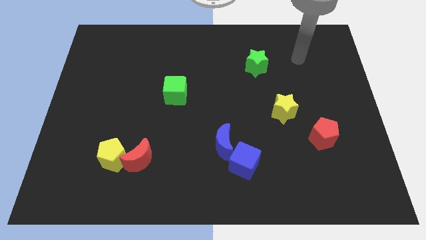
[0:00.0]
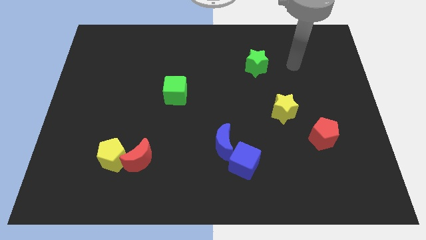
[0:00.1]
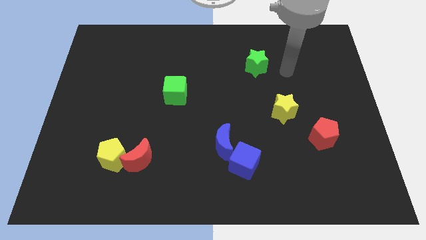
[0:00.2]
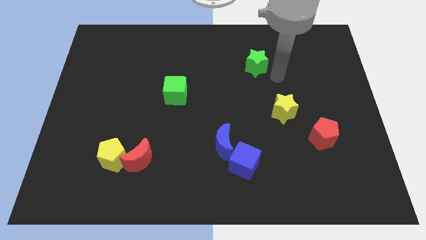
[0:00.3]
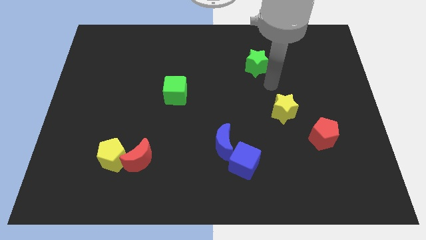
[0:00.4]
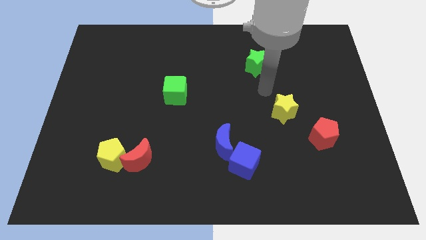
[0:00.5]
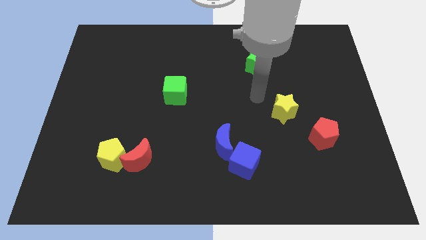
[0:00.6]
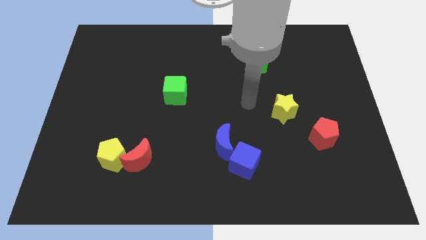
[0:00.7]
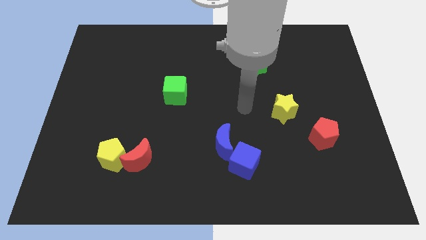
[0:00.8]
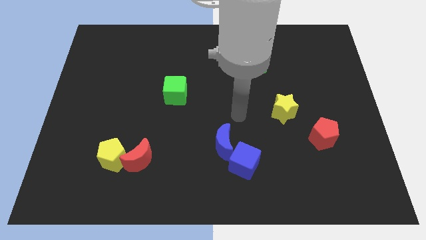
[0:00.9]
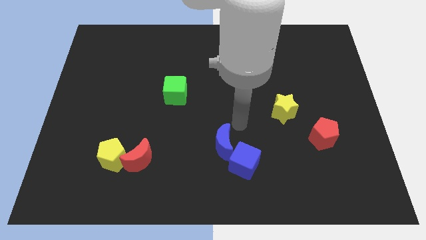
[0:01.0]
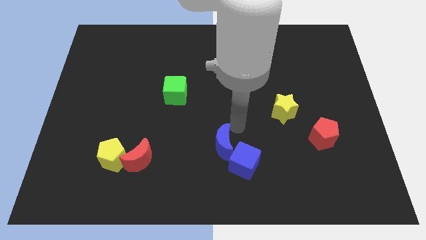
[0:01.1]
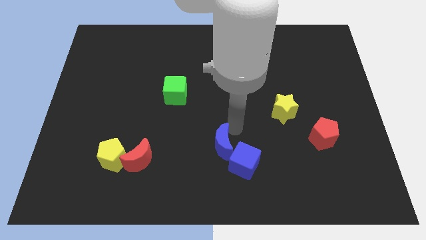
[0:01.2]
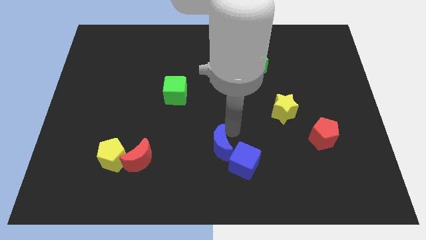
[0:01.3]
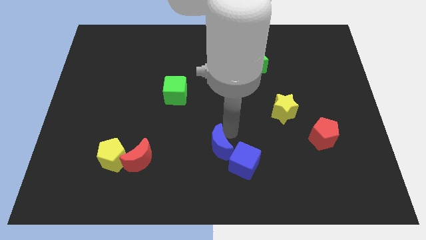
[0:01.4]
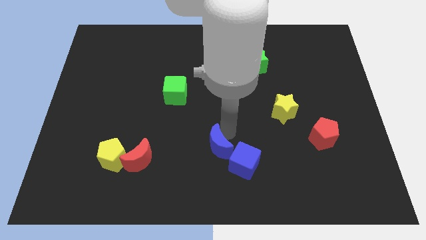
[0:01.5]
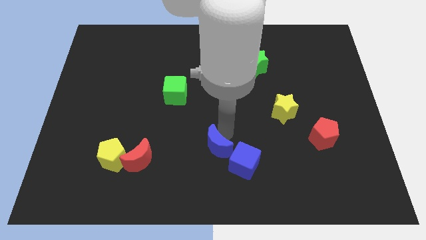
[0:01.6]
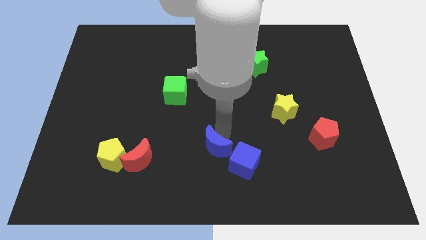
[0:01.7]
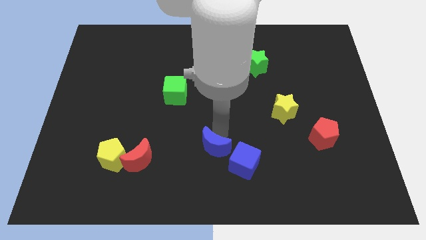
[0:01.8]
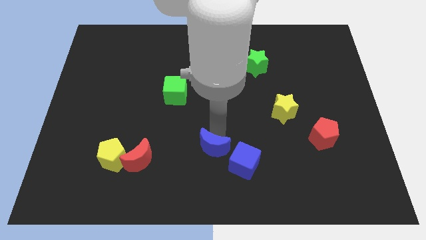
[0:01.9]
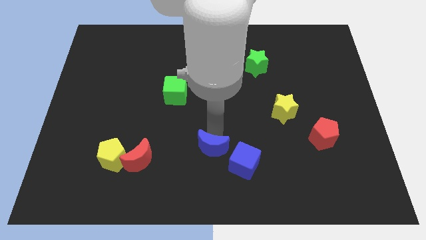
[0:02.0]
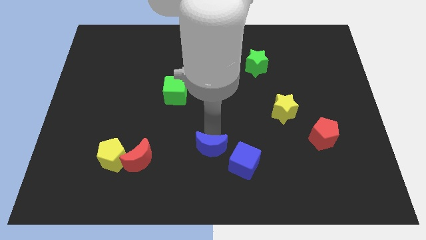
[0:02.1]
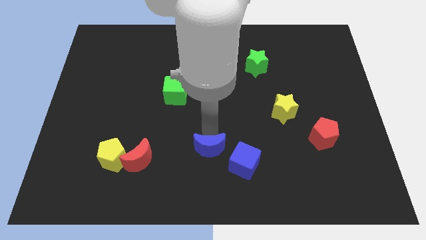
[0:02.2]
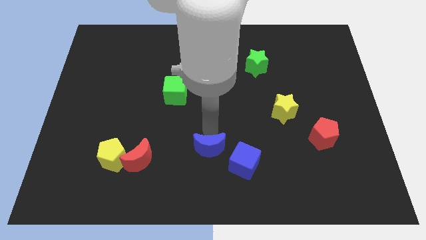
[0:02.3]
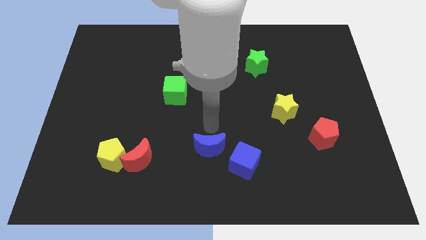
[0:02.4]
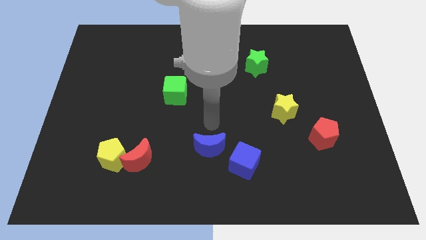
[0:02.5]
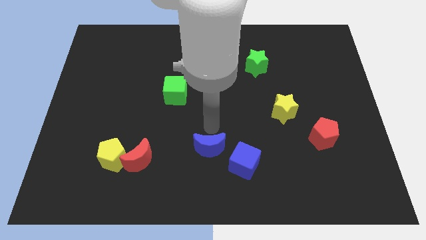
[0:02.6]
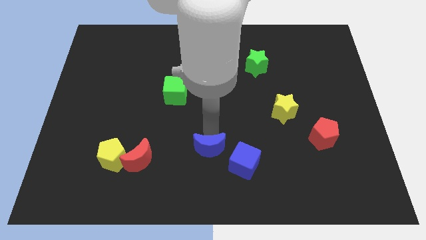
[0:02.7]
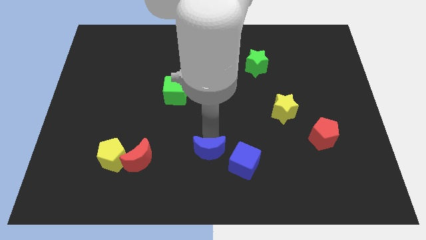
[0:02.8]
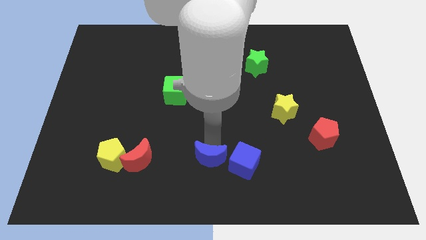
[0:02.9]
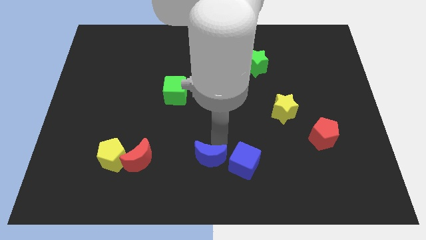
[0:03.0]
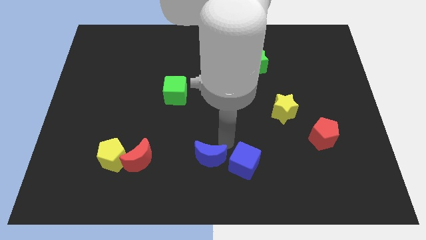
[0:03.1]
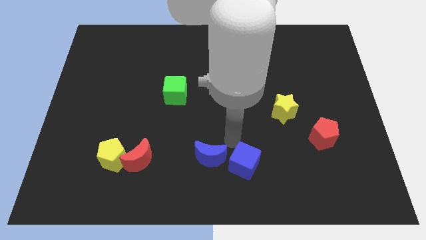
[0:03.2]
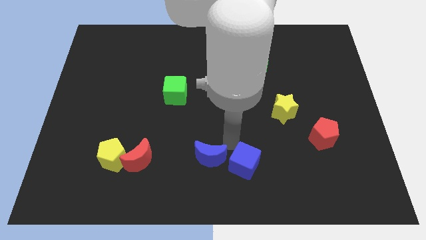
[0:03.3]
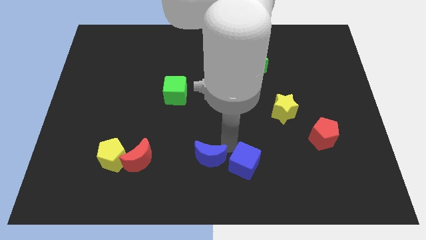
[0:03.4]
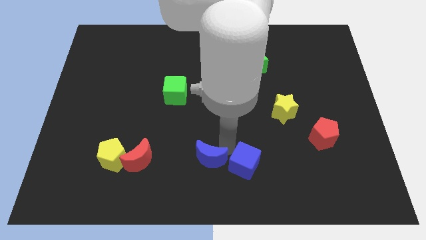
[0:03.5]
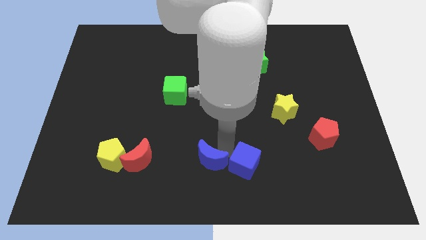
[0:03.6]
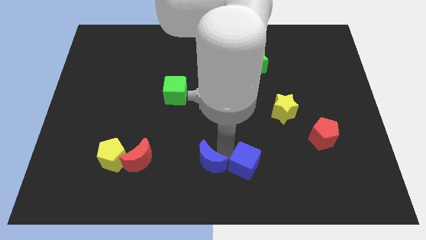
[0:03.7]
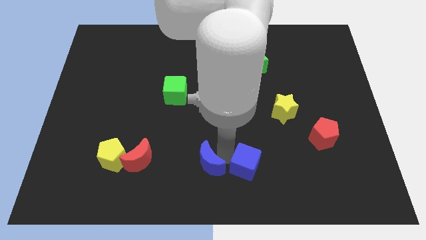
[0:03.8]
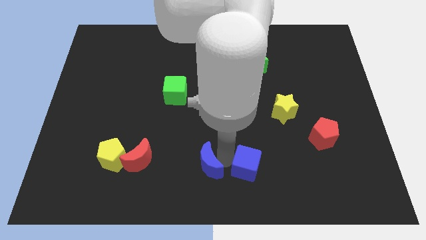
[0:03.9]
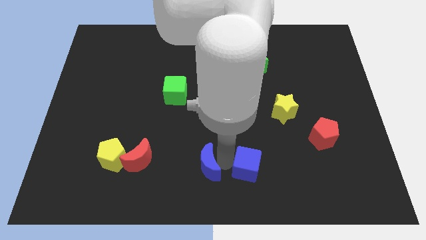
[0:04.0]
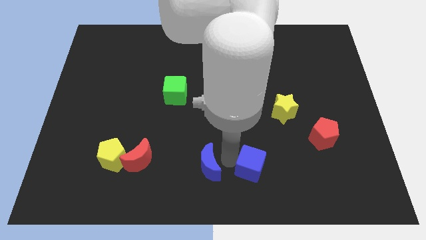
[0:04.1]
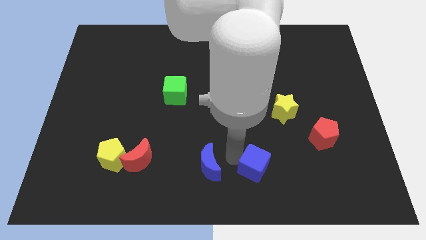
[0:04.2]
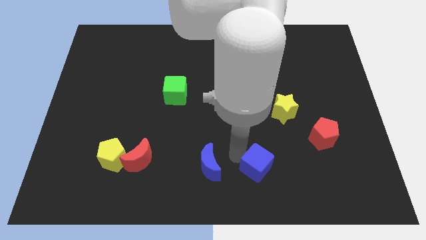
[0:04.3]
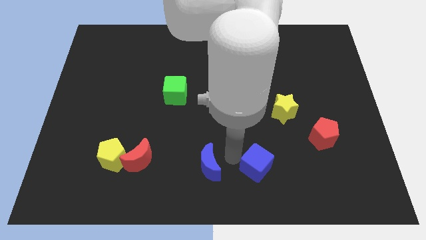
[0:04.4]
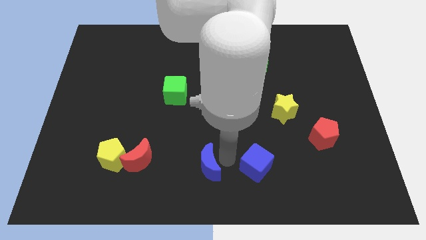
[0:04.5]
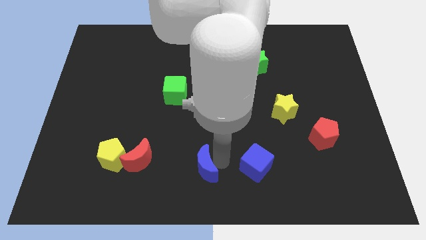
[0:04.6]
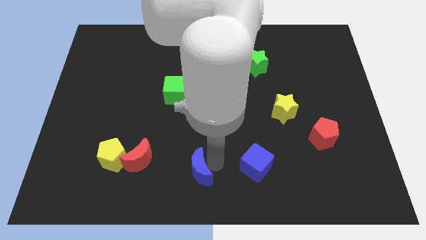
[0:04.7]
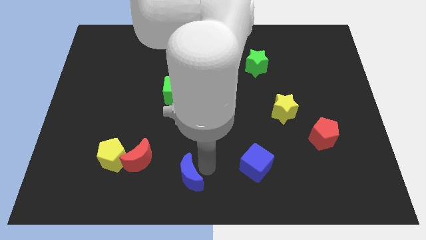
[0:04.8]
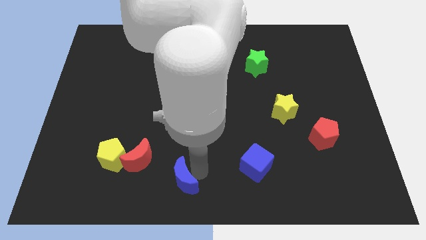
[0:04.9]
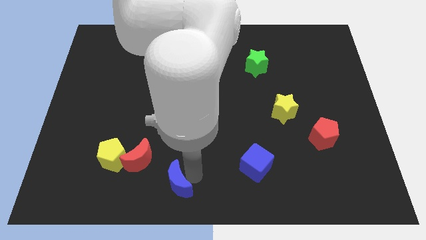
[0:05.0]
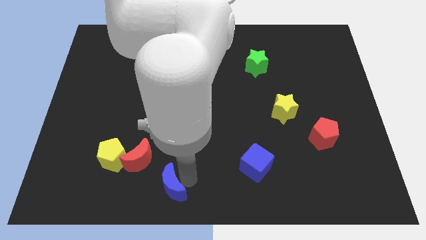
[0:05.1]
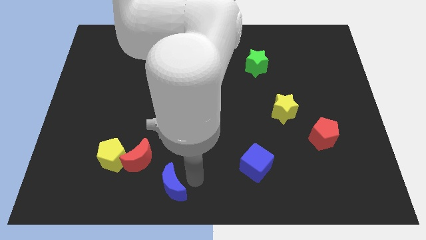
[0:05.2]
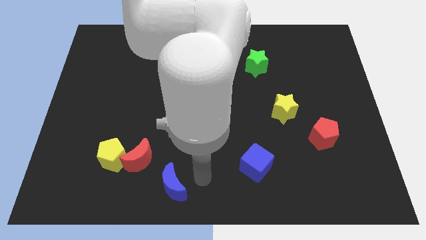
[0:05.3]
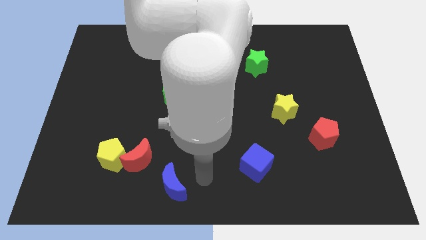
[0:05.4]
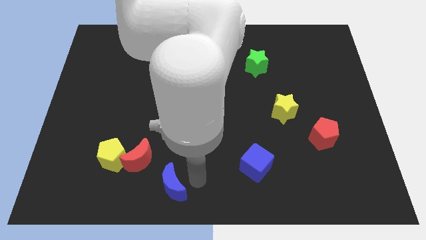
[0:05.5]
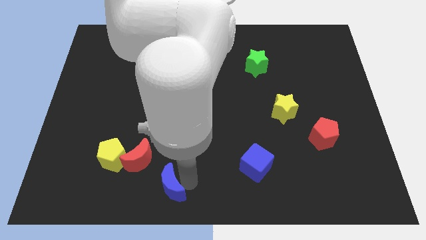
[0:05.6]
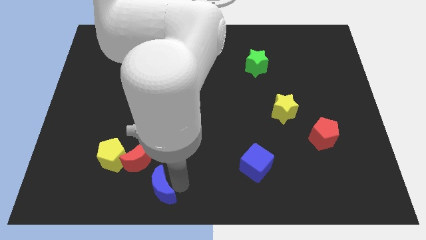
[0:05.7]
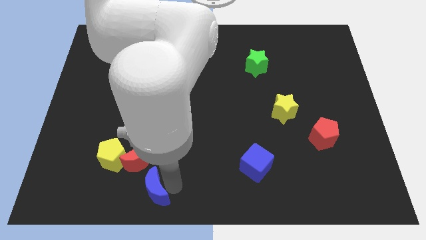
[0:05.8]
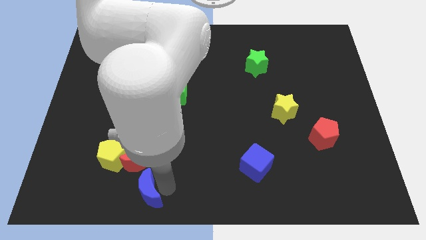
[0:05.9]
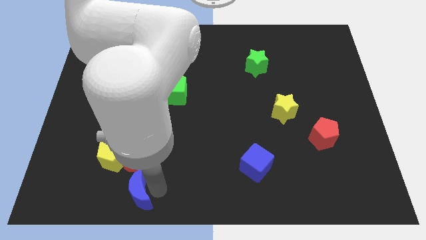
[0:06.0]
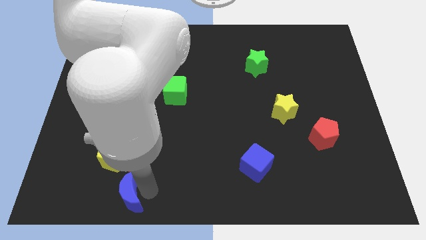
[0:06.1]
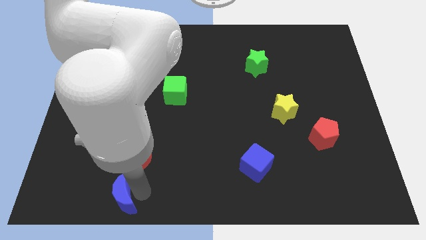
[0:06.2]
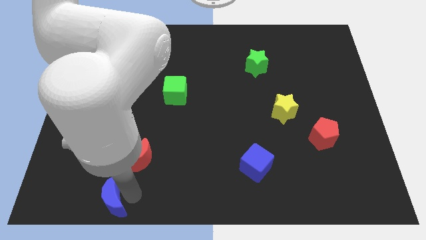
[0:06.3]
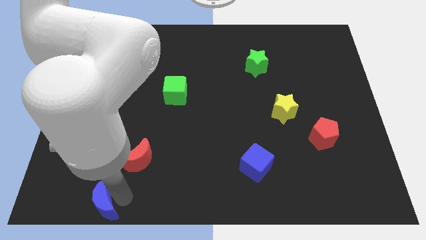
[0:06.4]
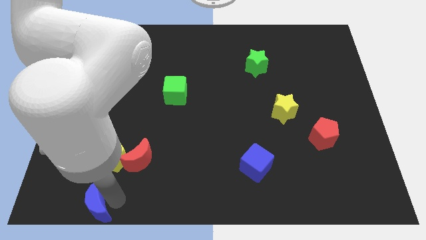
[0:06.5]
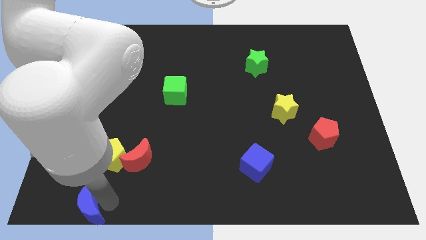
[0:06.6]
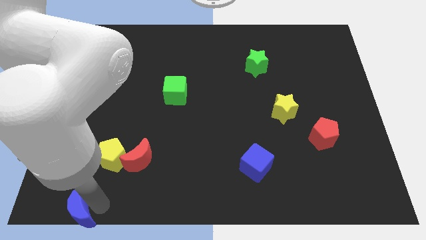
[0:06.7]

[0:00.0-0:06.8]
push the blue moon to the bottom left of the board
